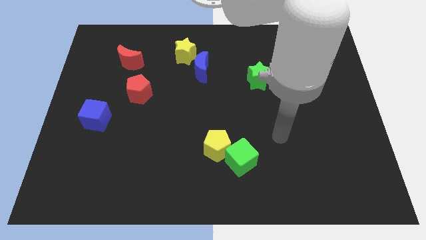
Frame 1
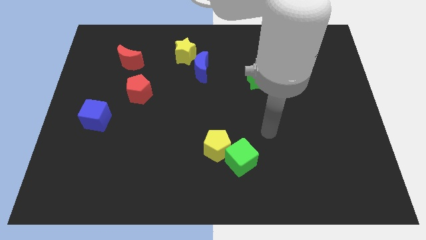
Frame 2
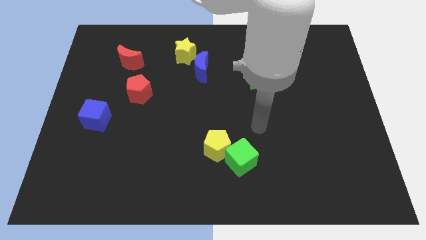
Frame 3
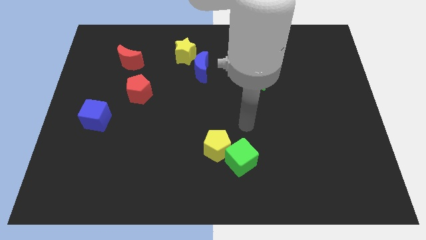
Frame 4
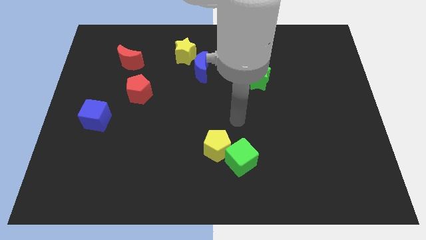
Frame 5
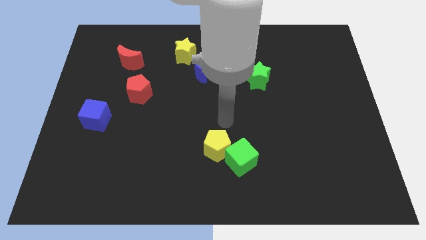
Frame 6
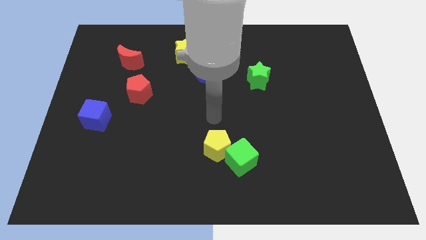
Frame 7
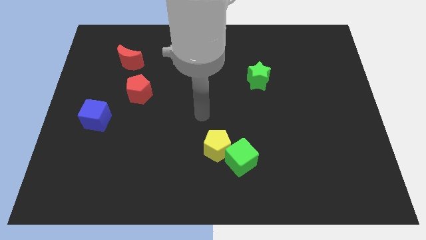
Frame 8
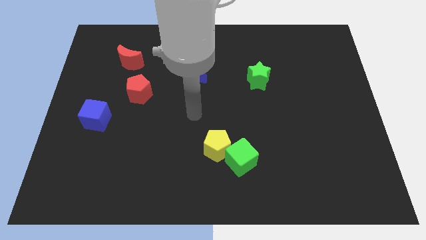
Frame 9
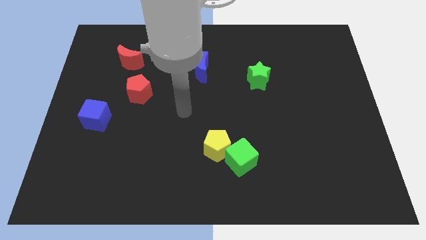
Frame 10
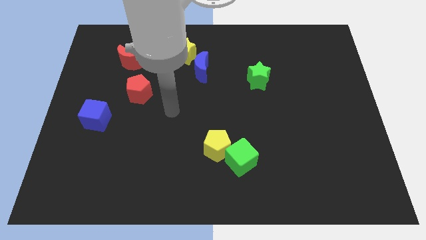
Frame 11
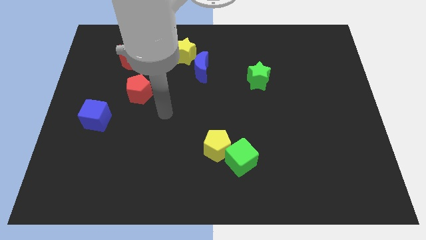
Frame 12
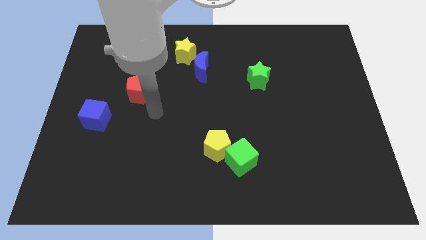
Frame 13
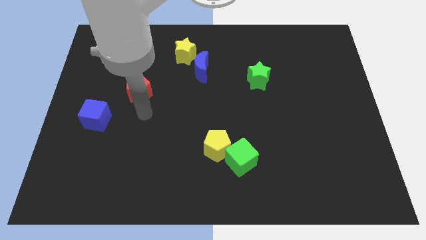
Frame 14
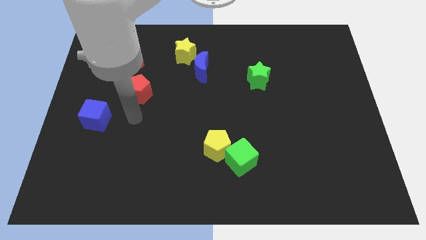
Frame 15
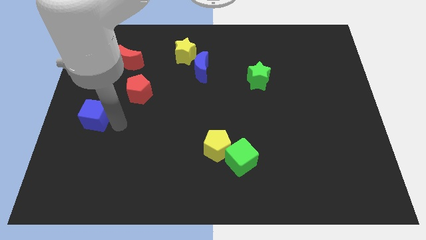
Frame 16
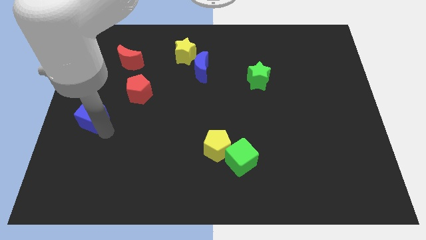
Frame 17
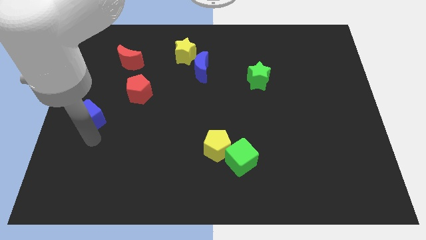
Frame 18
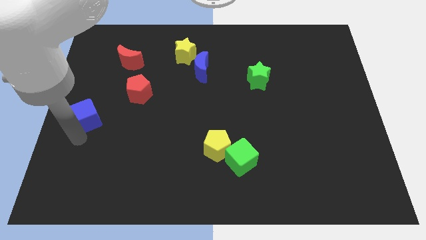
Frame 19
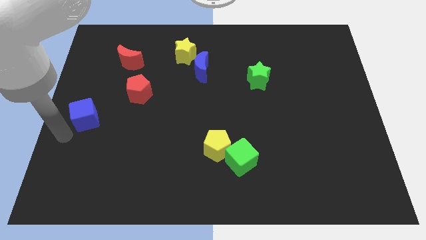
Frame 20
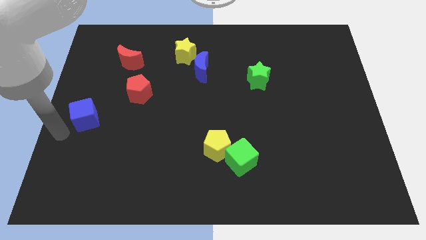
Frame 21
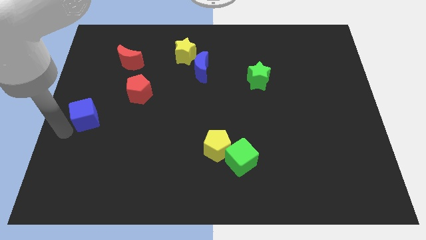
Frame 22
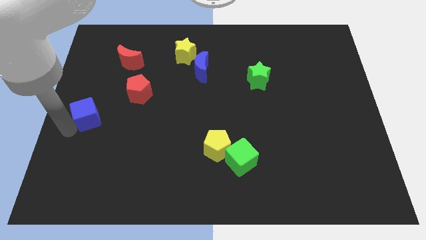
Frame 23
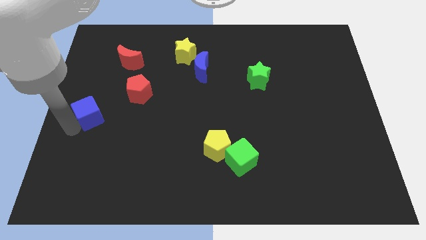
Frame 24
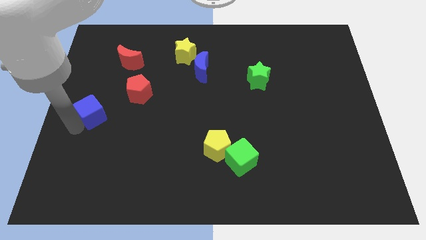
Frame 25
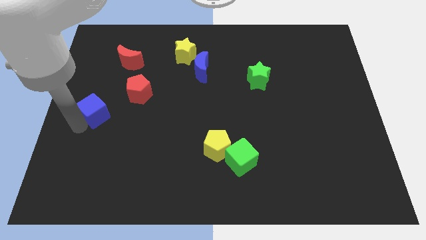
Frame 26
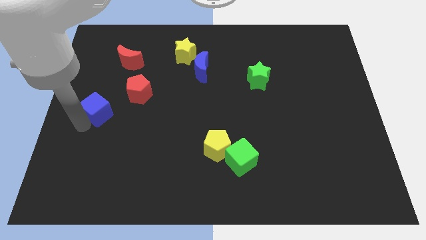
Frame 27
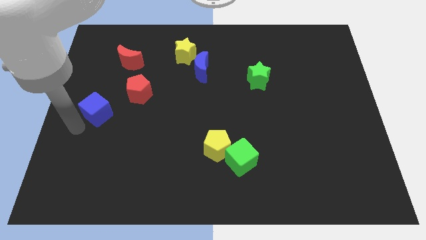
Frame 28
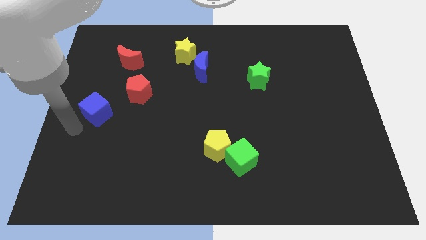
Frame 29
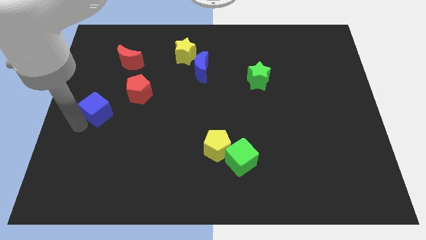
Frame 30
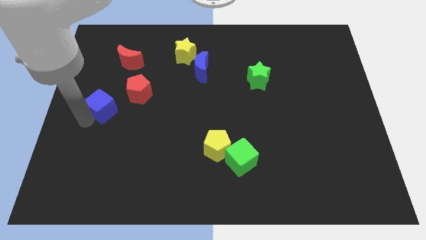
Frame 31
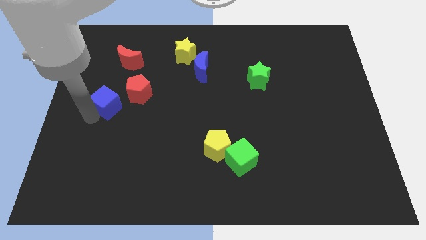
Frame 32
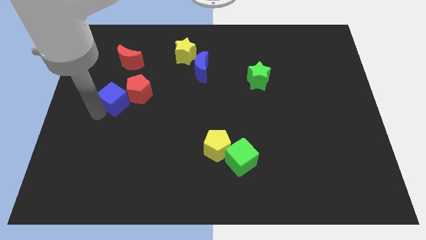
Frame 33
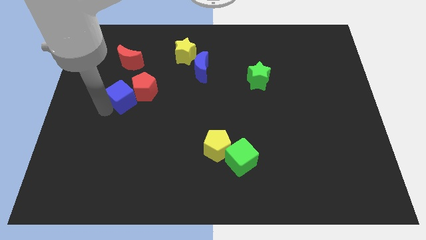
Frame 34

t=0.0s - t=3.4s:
slightly move the blue cube up and then to the right

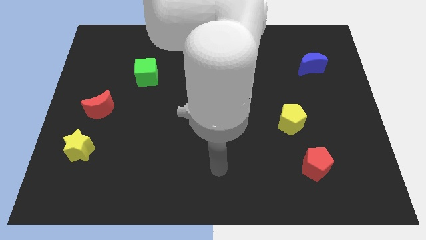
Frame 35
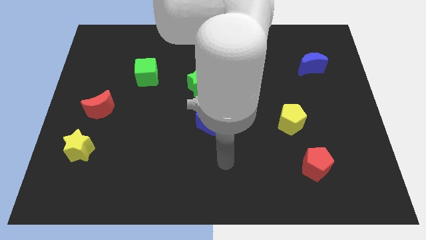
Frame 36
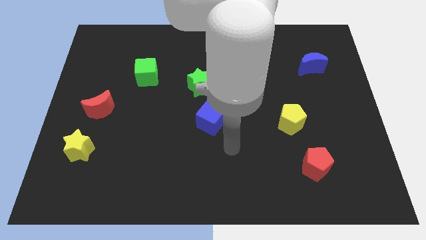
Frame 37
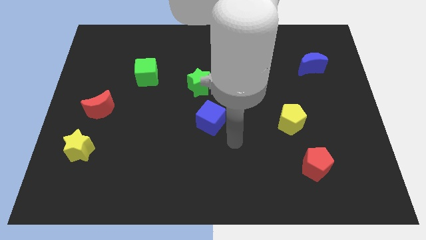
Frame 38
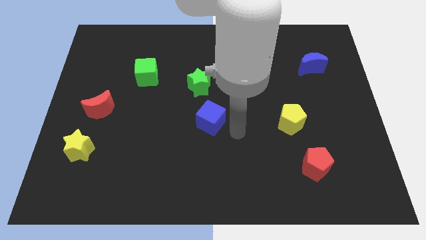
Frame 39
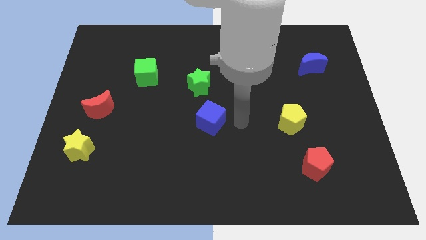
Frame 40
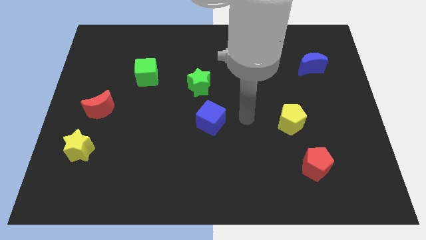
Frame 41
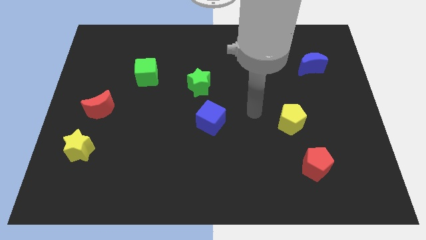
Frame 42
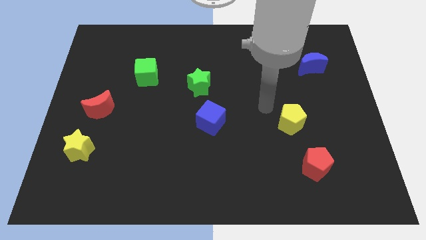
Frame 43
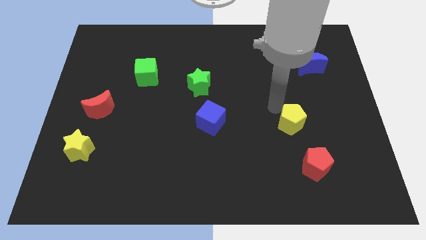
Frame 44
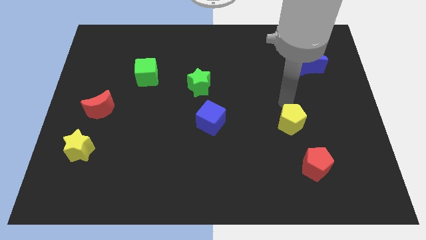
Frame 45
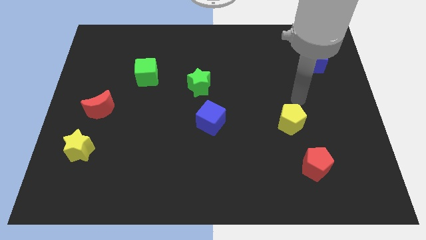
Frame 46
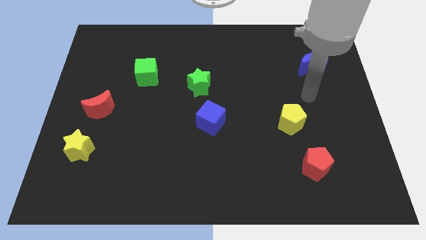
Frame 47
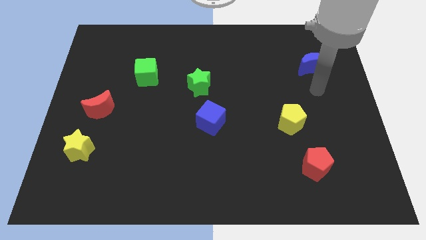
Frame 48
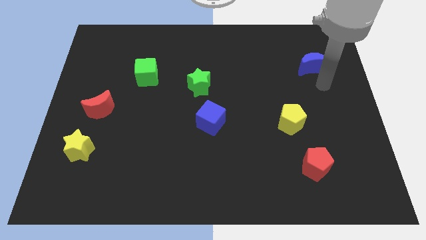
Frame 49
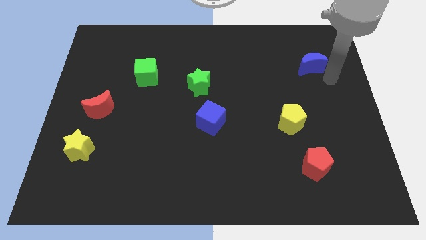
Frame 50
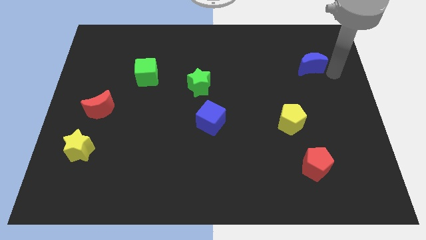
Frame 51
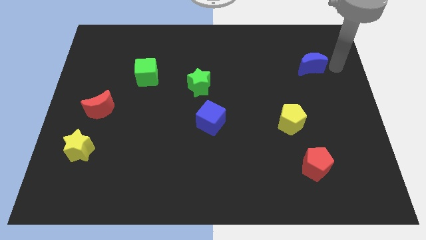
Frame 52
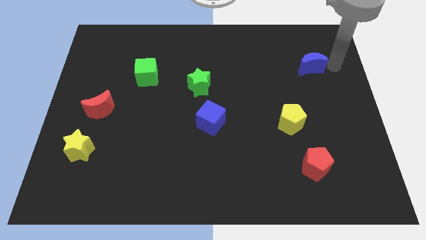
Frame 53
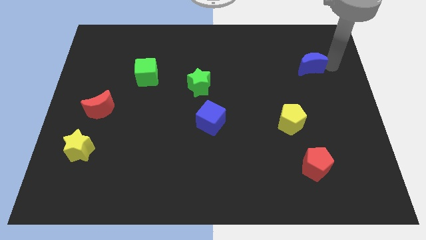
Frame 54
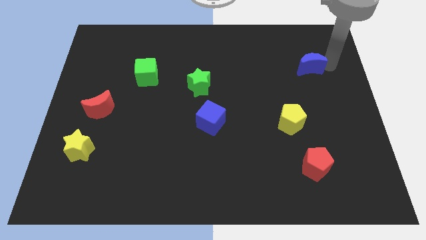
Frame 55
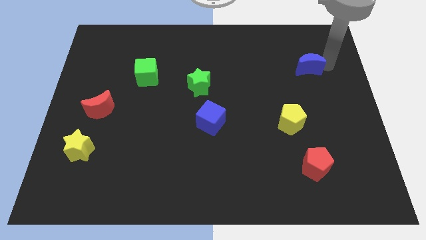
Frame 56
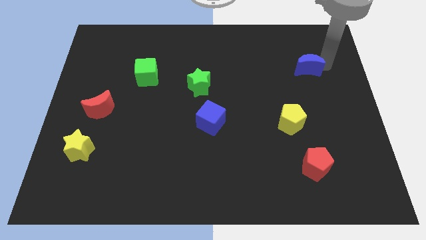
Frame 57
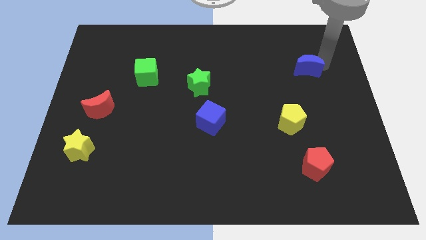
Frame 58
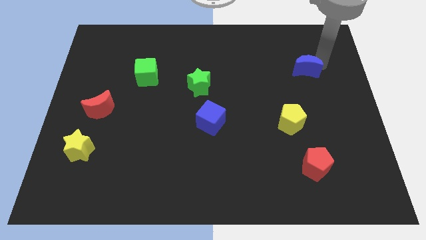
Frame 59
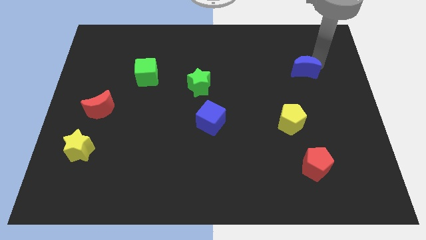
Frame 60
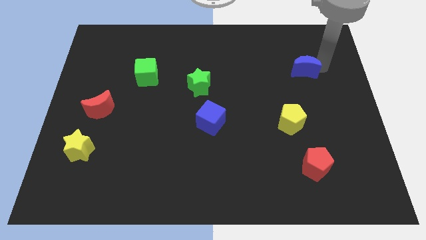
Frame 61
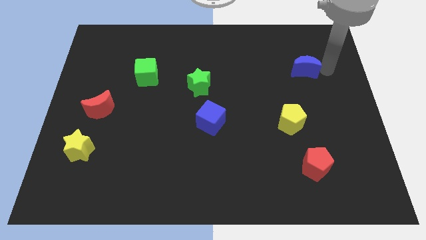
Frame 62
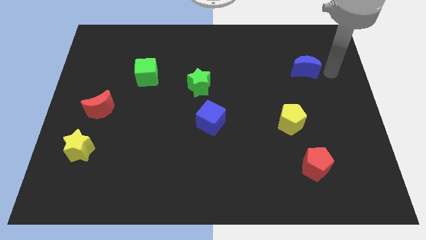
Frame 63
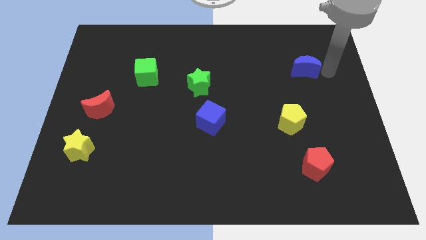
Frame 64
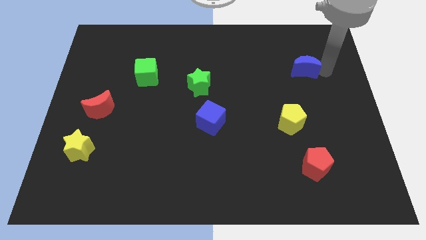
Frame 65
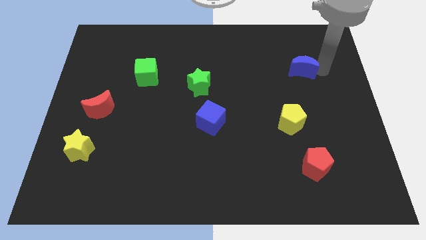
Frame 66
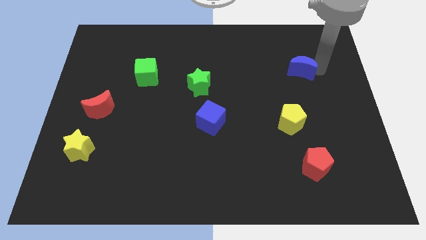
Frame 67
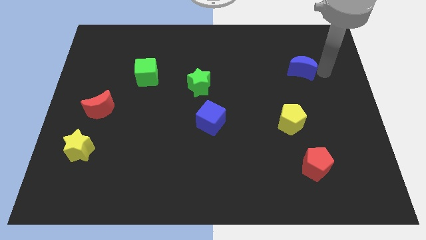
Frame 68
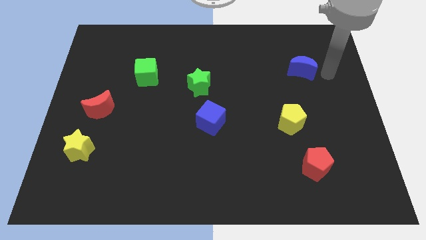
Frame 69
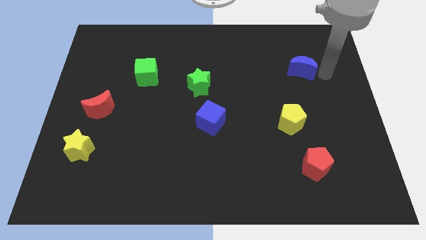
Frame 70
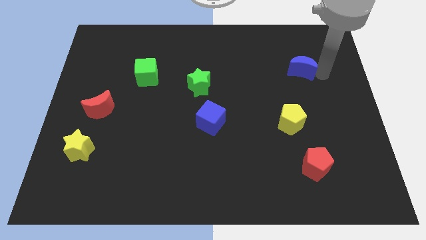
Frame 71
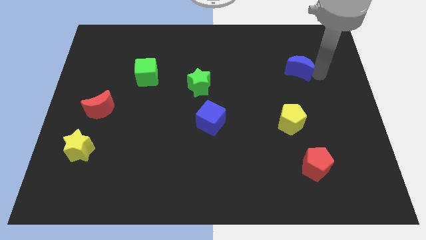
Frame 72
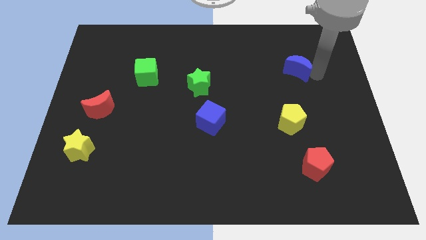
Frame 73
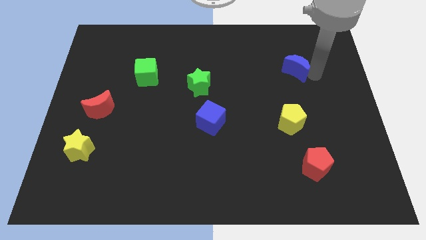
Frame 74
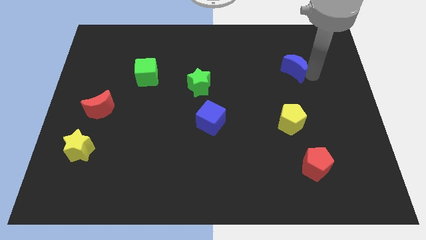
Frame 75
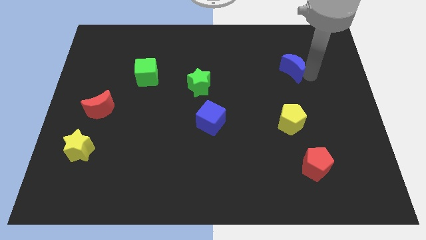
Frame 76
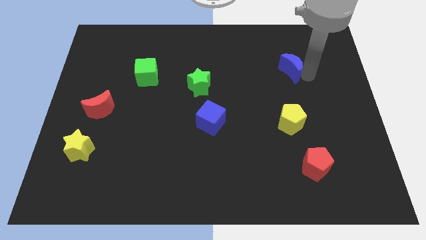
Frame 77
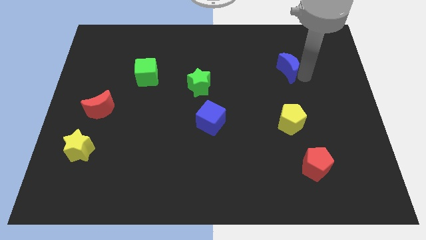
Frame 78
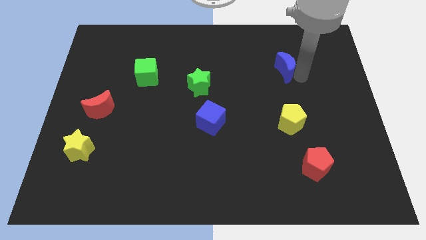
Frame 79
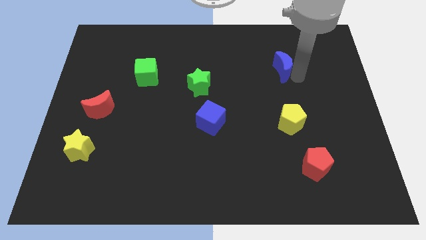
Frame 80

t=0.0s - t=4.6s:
slide the blue moon a little to the left
